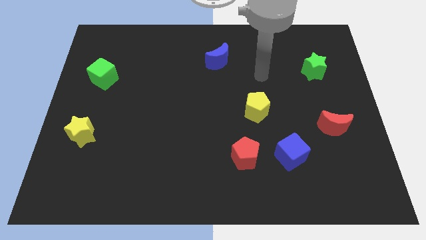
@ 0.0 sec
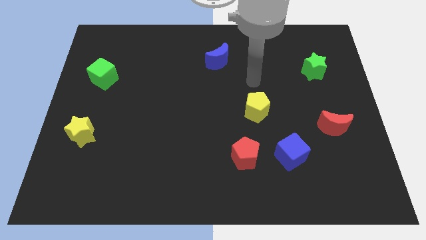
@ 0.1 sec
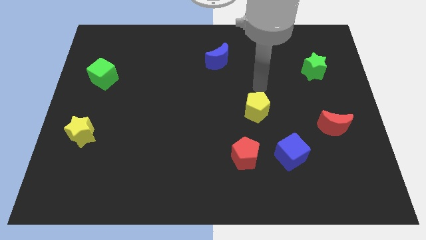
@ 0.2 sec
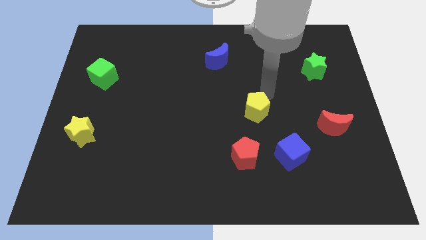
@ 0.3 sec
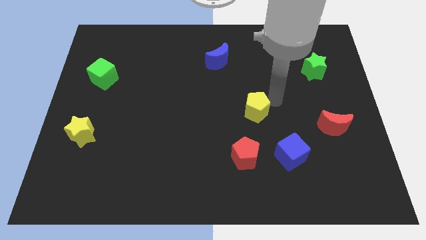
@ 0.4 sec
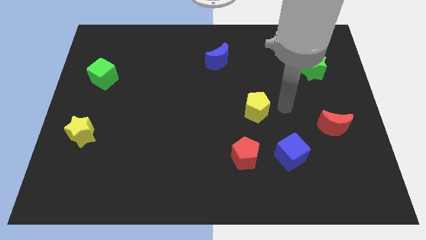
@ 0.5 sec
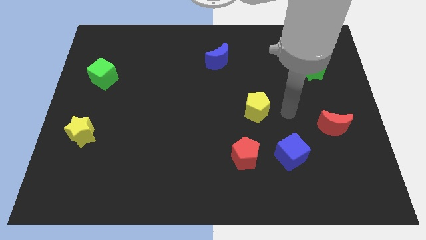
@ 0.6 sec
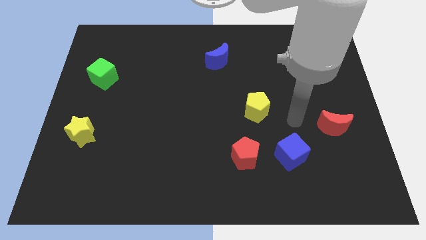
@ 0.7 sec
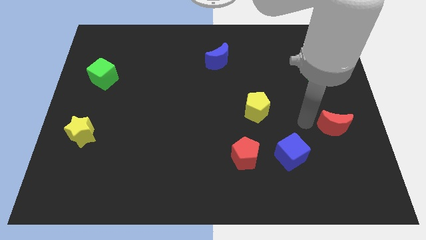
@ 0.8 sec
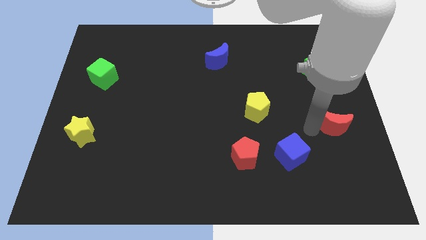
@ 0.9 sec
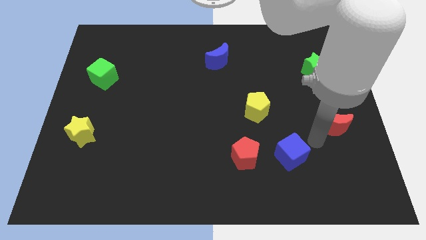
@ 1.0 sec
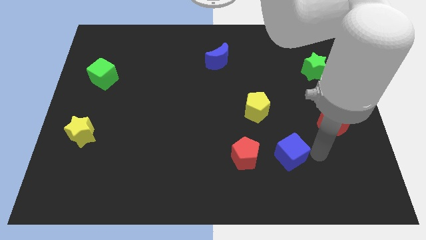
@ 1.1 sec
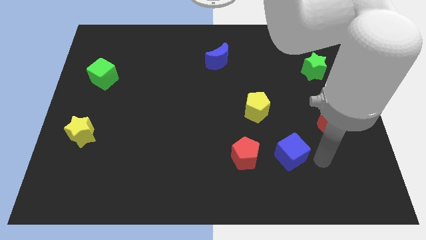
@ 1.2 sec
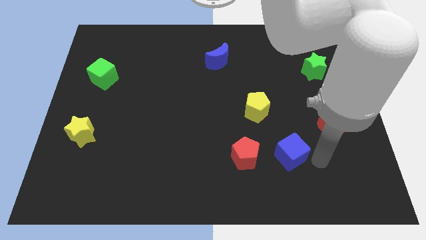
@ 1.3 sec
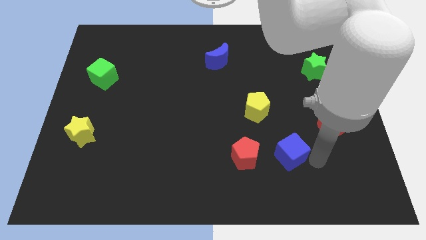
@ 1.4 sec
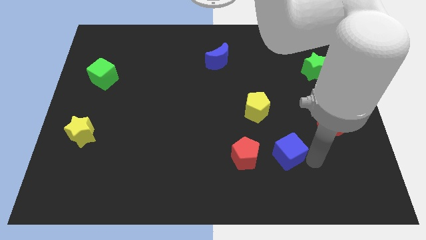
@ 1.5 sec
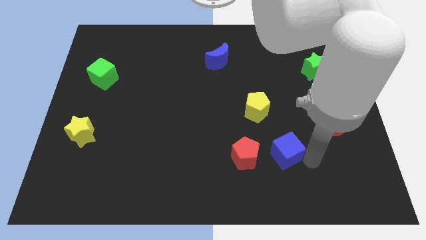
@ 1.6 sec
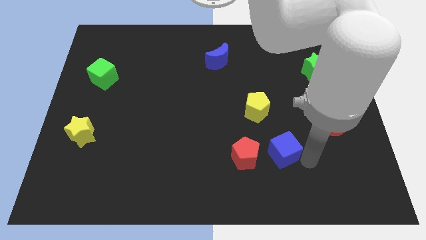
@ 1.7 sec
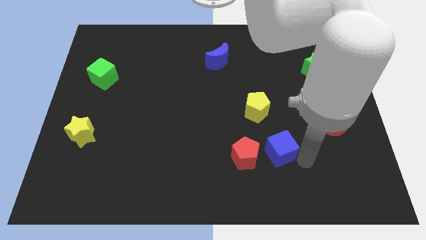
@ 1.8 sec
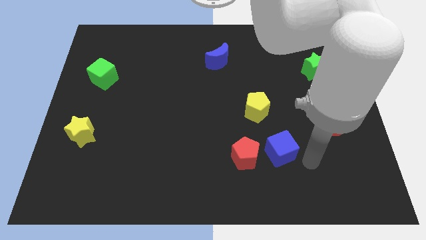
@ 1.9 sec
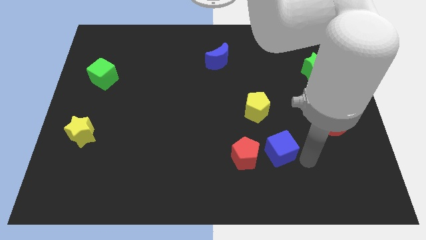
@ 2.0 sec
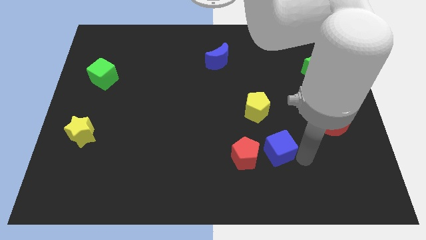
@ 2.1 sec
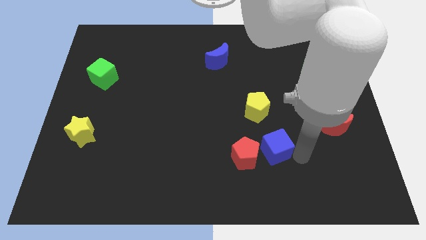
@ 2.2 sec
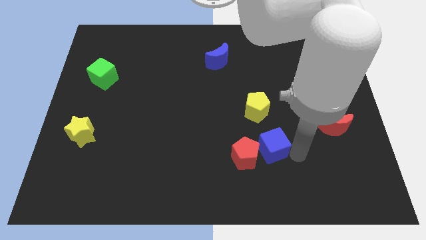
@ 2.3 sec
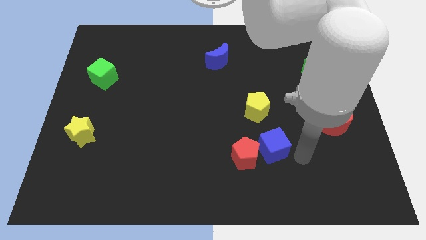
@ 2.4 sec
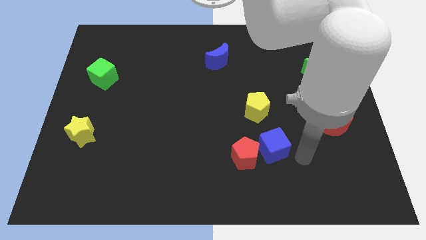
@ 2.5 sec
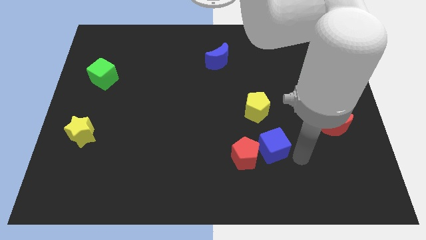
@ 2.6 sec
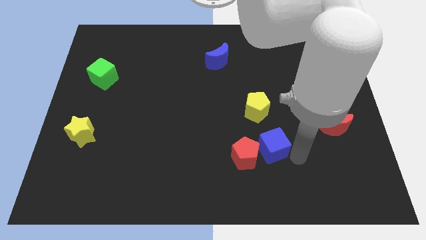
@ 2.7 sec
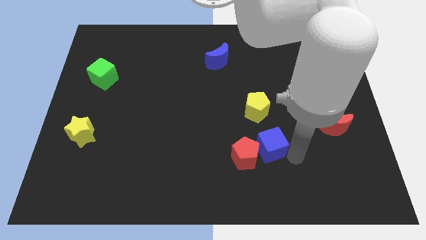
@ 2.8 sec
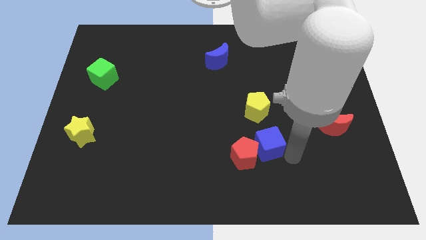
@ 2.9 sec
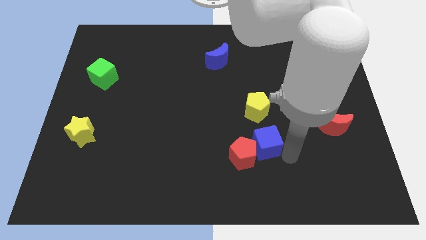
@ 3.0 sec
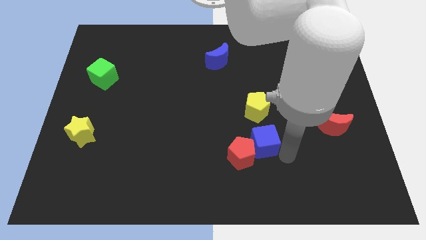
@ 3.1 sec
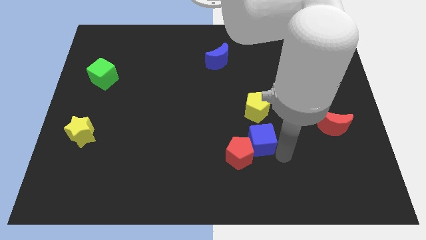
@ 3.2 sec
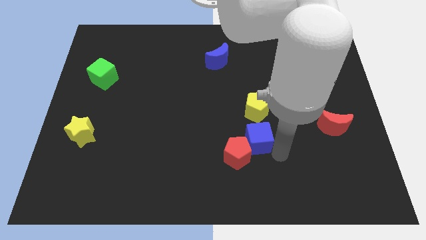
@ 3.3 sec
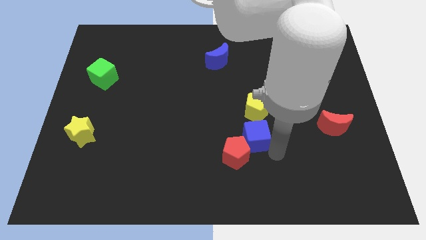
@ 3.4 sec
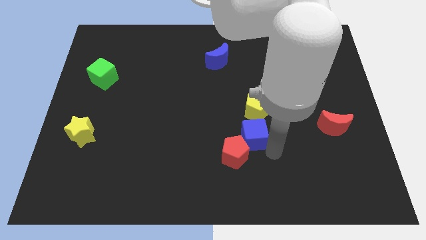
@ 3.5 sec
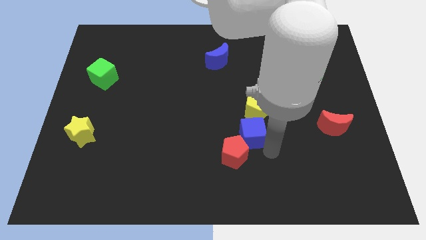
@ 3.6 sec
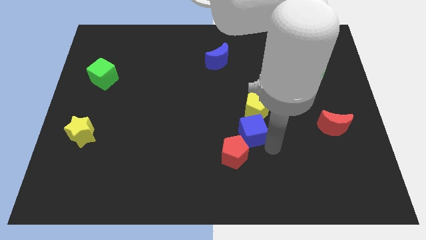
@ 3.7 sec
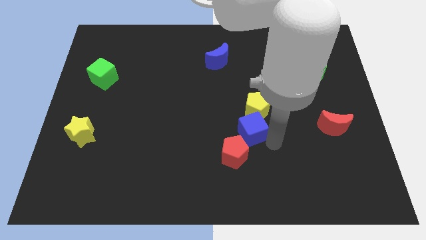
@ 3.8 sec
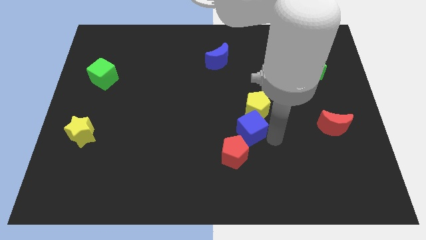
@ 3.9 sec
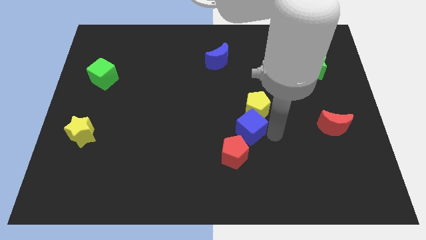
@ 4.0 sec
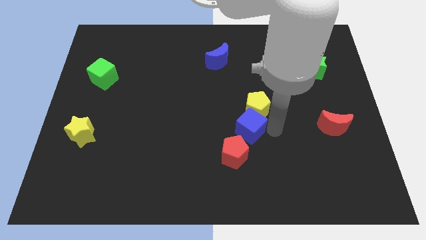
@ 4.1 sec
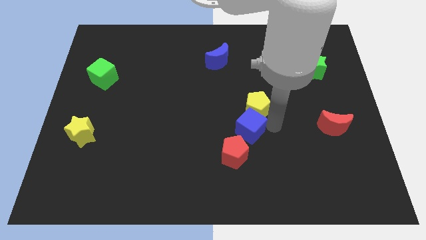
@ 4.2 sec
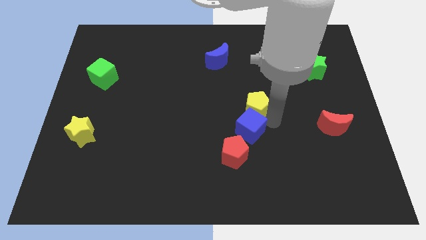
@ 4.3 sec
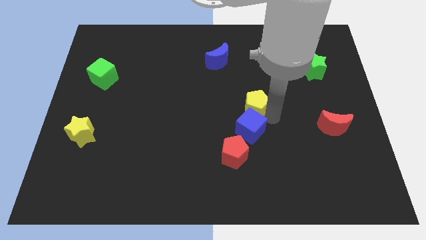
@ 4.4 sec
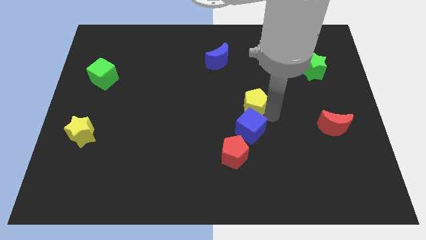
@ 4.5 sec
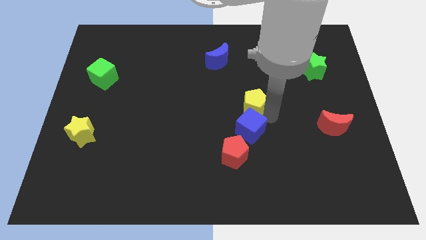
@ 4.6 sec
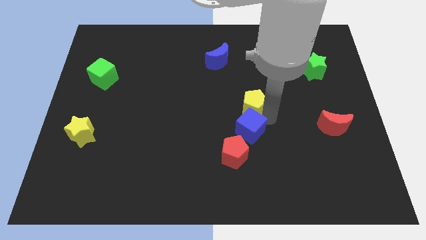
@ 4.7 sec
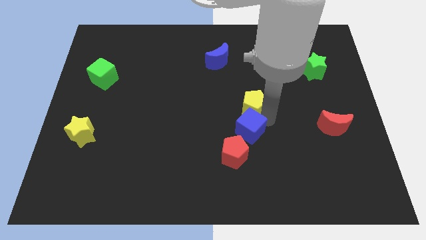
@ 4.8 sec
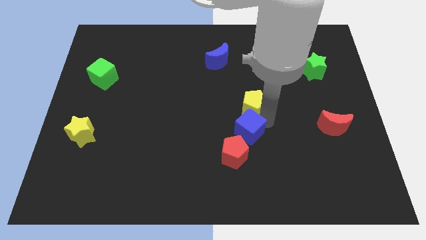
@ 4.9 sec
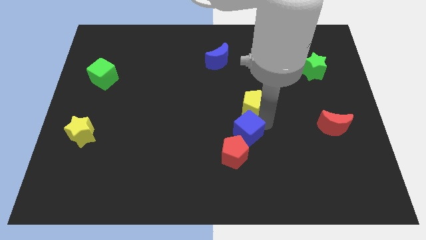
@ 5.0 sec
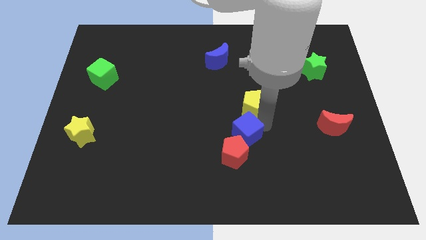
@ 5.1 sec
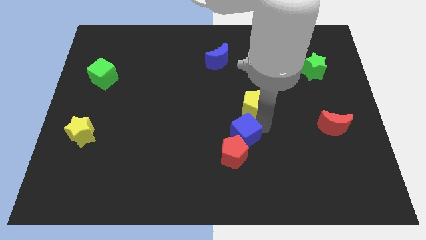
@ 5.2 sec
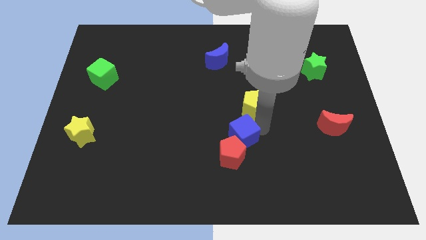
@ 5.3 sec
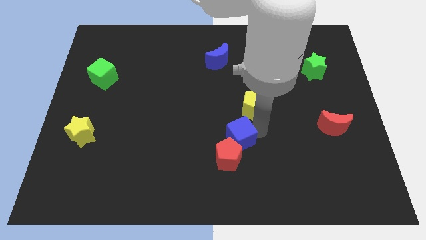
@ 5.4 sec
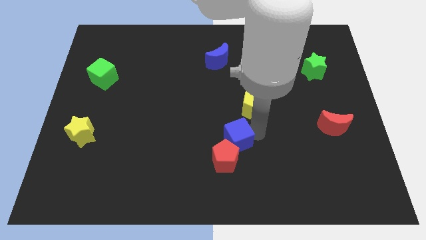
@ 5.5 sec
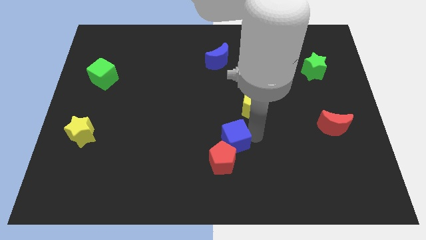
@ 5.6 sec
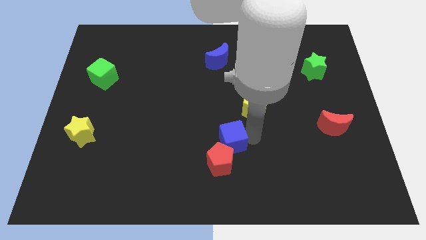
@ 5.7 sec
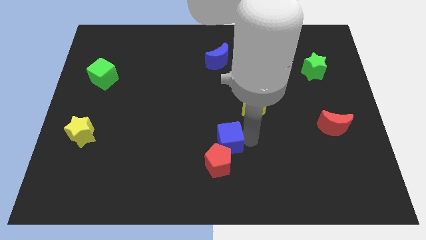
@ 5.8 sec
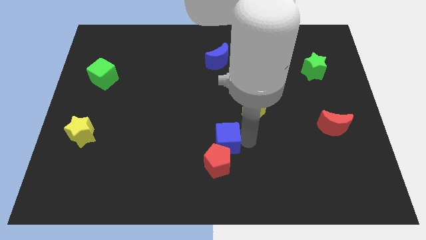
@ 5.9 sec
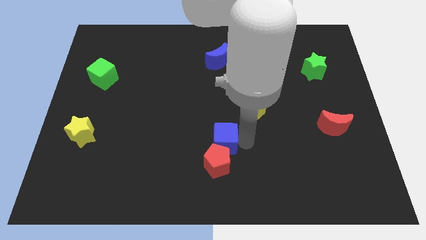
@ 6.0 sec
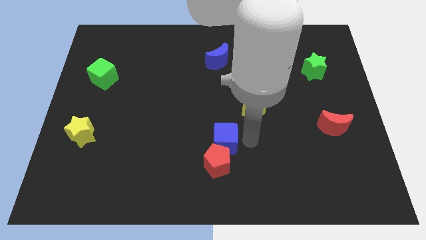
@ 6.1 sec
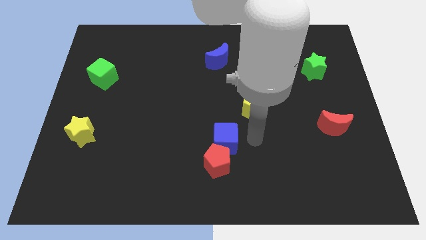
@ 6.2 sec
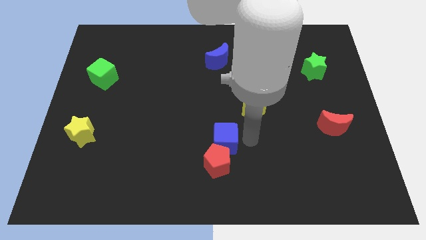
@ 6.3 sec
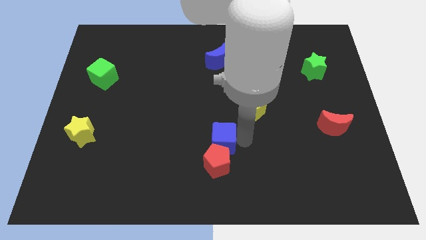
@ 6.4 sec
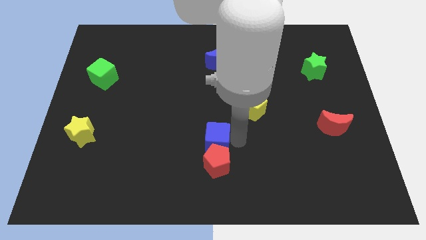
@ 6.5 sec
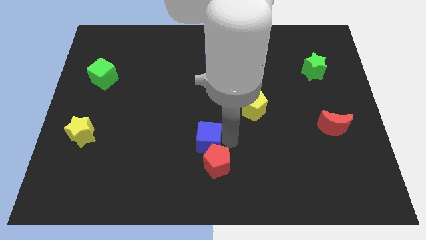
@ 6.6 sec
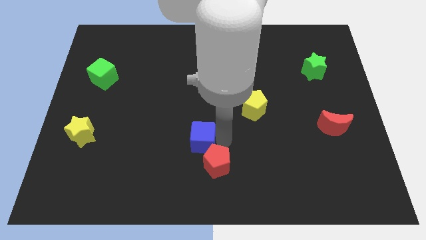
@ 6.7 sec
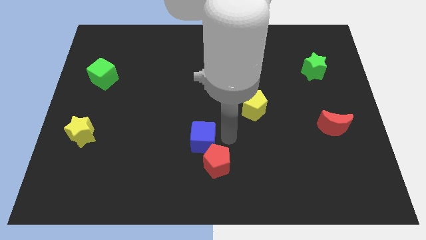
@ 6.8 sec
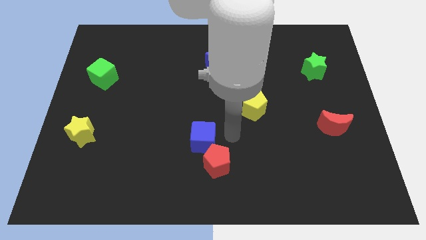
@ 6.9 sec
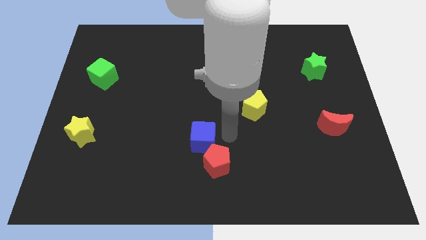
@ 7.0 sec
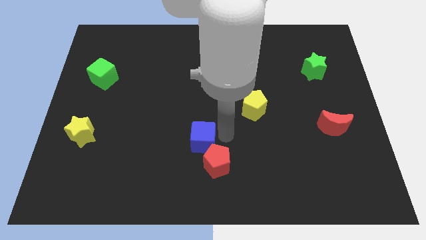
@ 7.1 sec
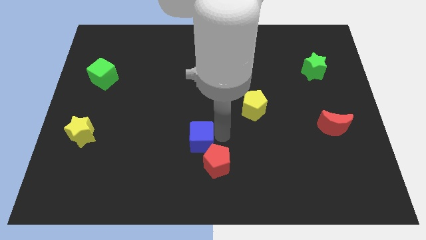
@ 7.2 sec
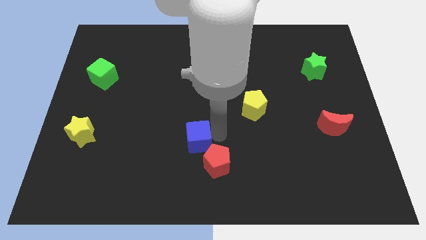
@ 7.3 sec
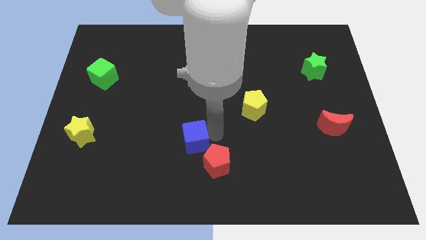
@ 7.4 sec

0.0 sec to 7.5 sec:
move the blue cube to the left

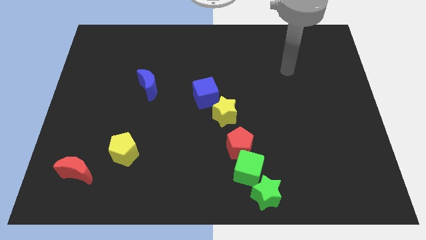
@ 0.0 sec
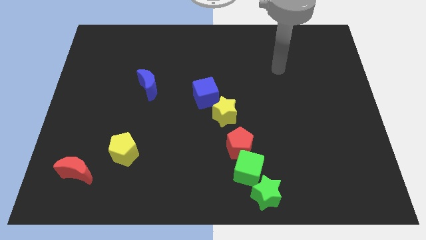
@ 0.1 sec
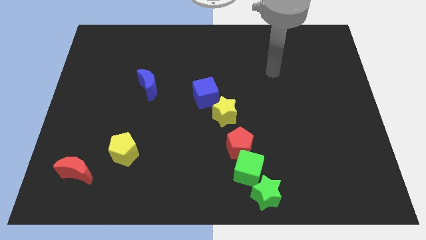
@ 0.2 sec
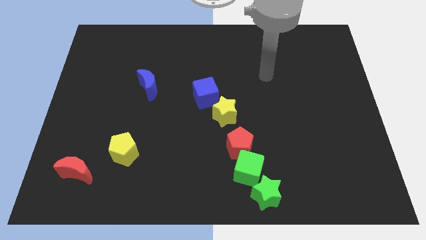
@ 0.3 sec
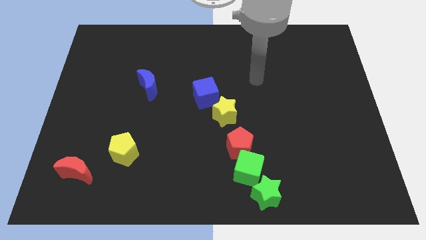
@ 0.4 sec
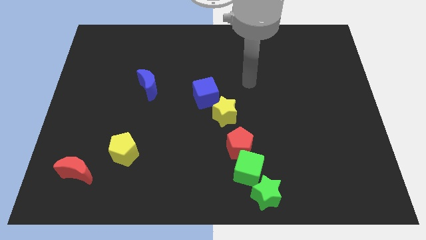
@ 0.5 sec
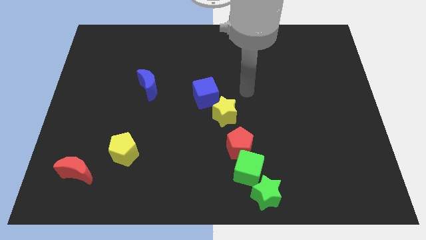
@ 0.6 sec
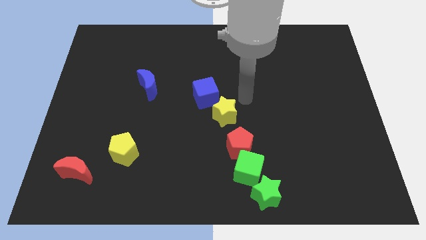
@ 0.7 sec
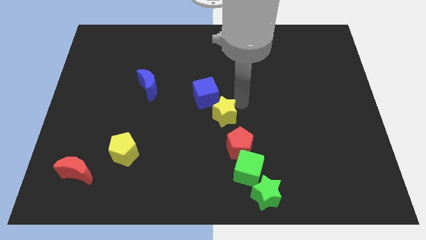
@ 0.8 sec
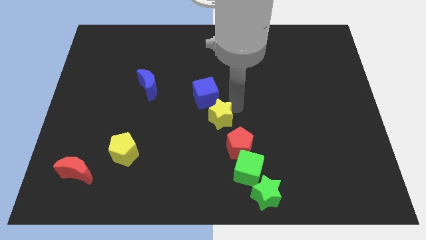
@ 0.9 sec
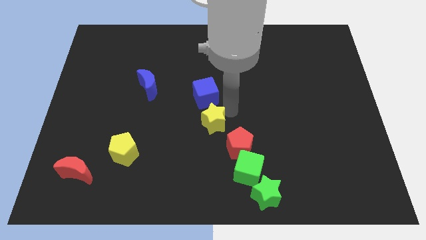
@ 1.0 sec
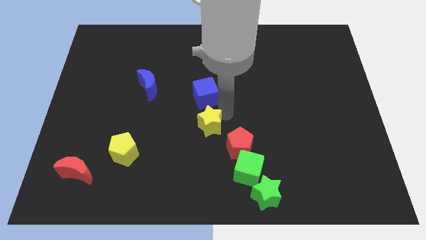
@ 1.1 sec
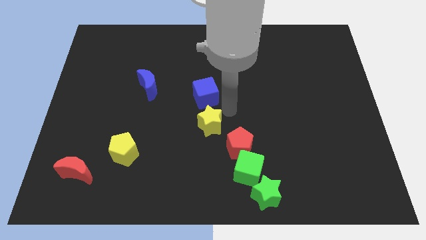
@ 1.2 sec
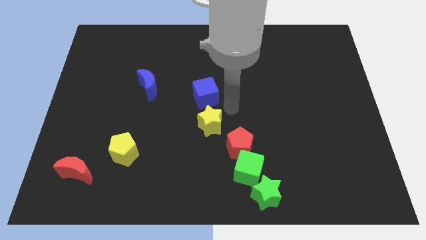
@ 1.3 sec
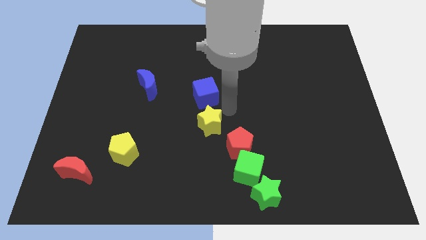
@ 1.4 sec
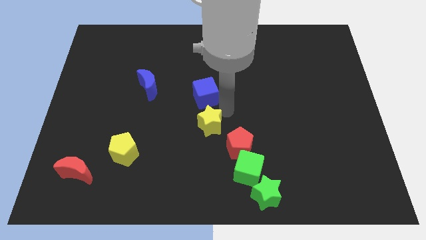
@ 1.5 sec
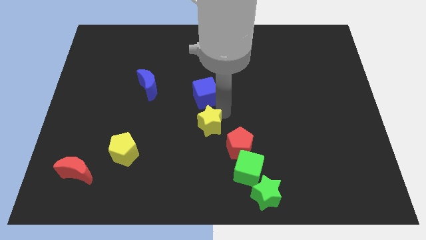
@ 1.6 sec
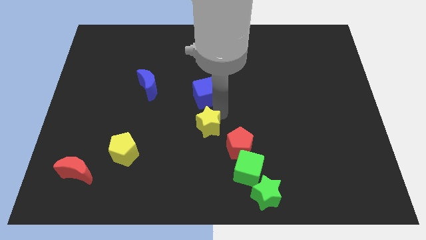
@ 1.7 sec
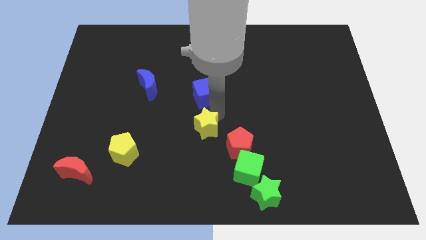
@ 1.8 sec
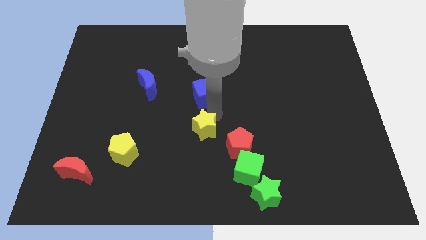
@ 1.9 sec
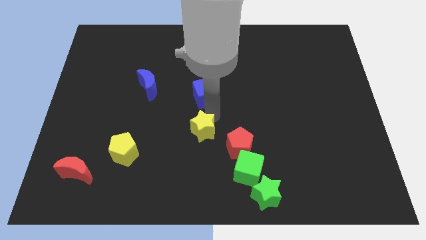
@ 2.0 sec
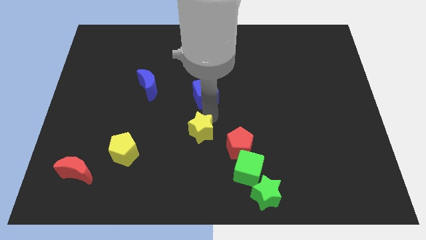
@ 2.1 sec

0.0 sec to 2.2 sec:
slide the yellow star downwards and then to the left a bit
